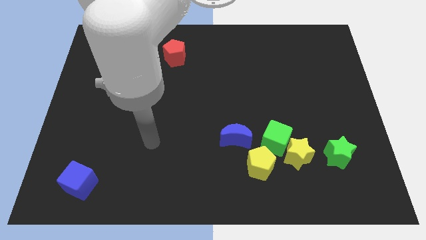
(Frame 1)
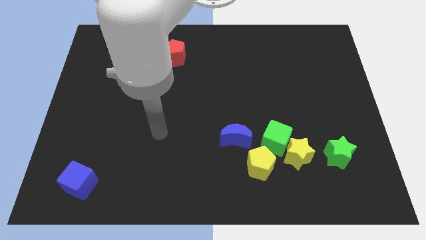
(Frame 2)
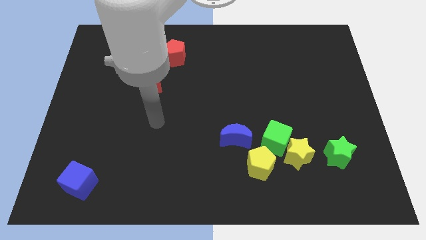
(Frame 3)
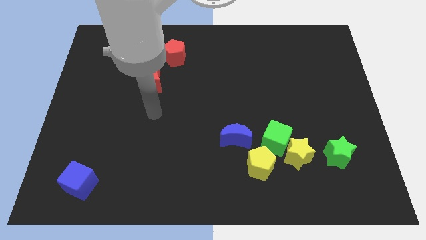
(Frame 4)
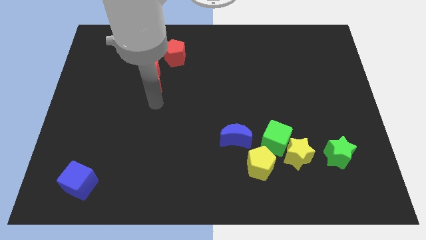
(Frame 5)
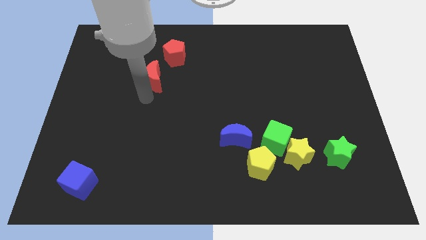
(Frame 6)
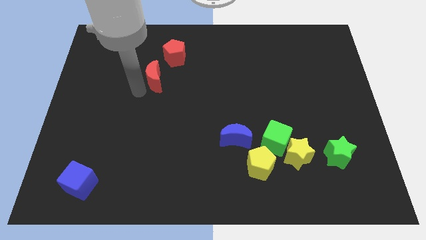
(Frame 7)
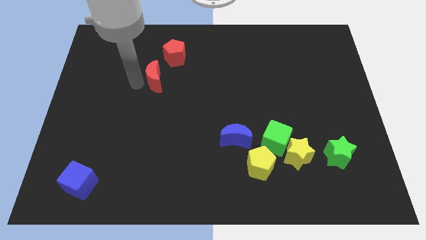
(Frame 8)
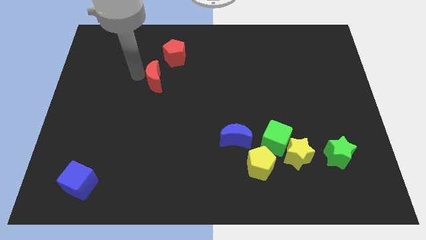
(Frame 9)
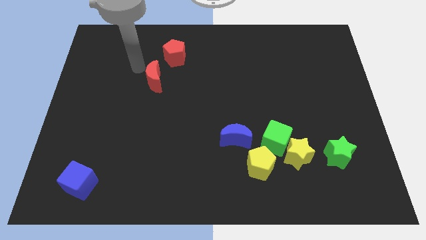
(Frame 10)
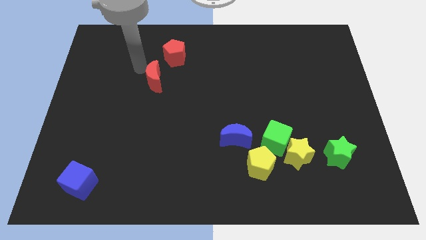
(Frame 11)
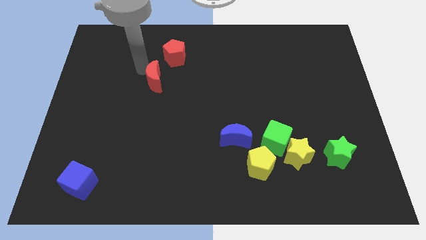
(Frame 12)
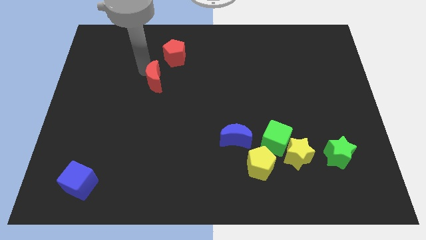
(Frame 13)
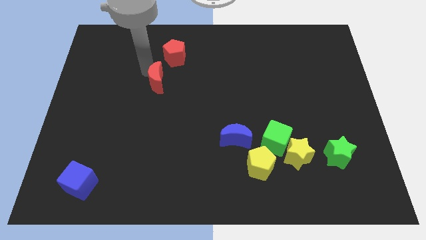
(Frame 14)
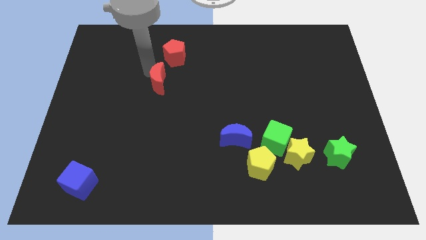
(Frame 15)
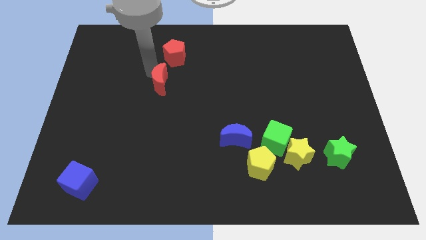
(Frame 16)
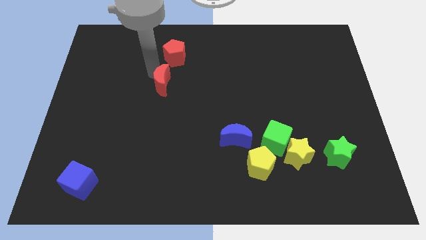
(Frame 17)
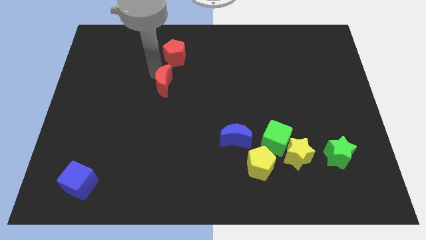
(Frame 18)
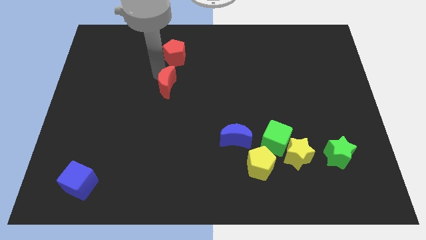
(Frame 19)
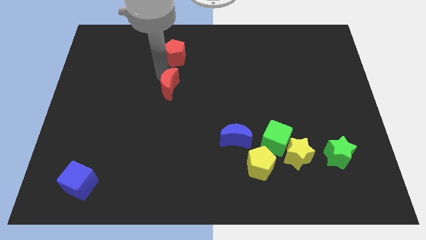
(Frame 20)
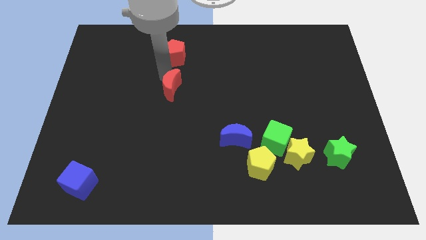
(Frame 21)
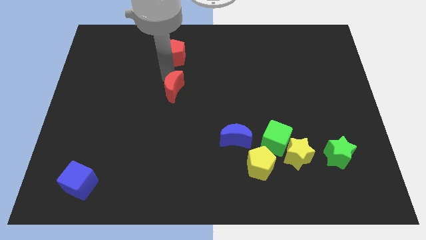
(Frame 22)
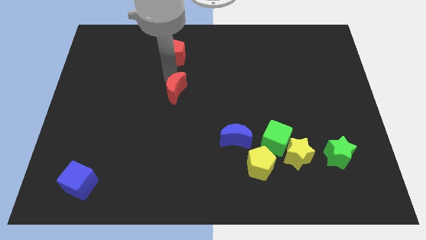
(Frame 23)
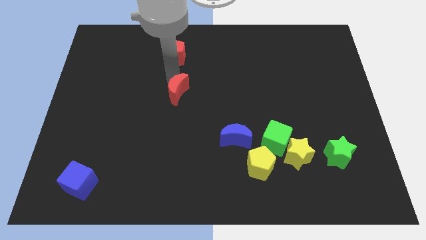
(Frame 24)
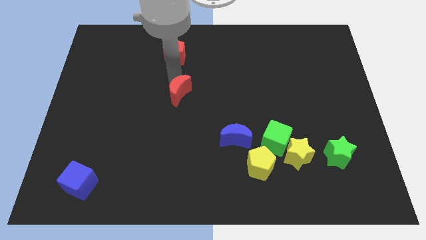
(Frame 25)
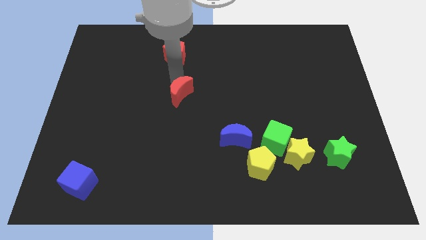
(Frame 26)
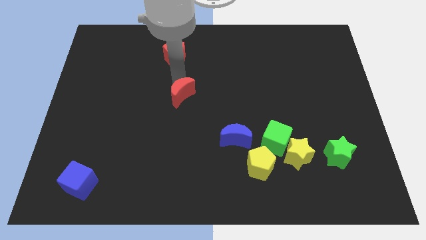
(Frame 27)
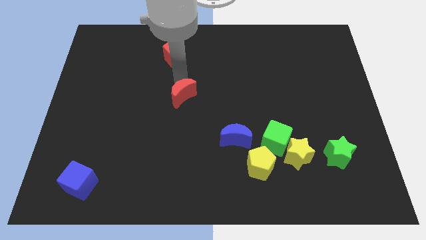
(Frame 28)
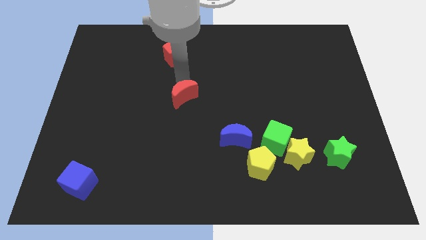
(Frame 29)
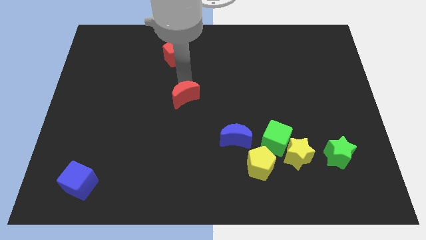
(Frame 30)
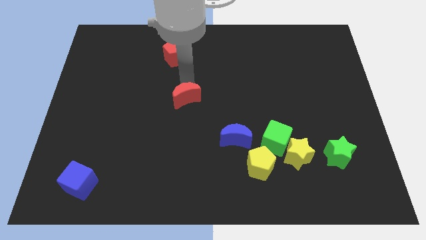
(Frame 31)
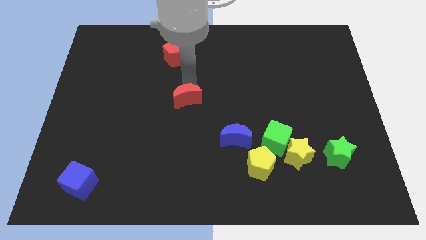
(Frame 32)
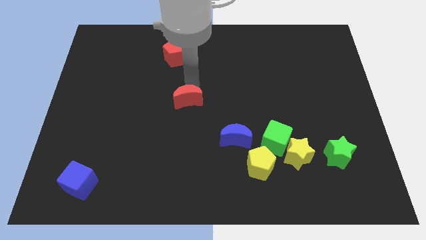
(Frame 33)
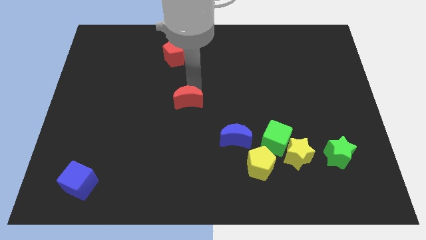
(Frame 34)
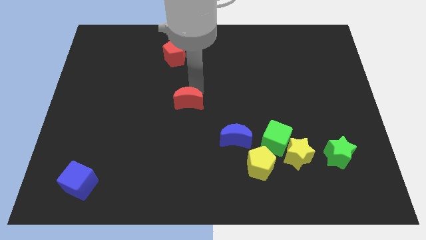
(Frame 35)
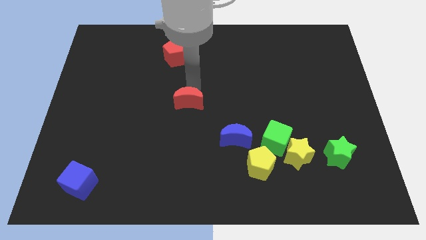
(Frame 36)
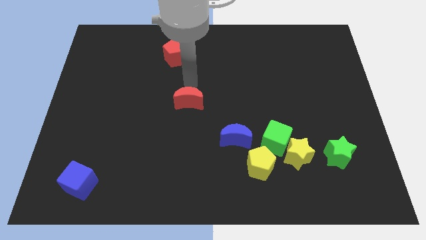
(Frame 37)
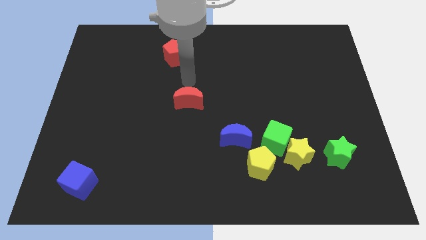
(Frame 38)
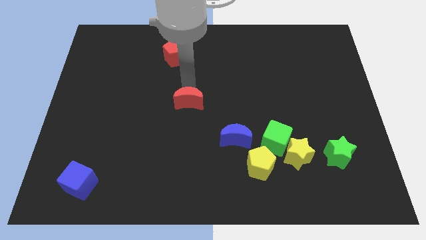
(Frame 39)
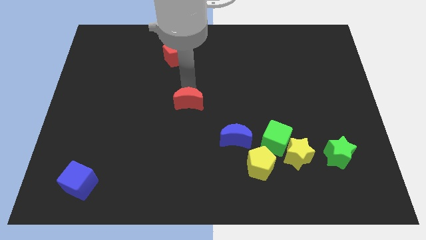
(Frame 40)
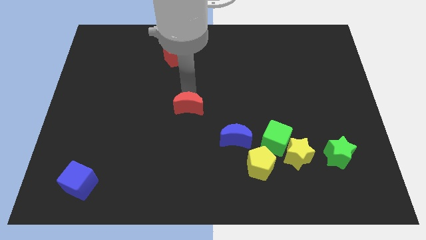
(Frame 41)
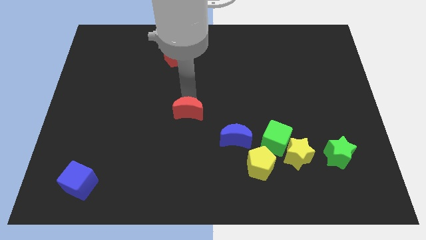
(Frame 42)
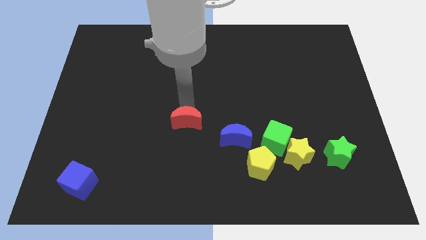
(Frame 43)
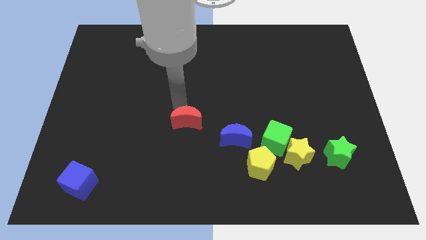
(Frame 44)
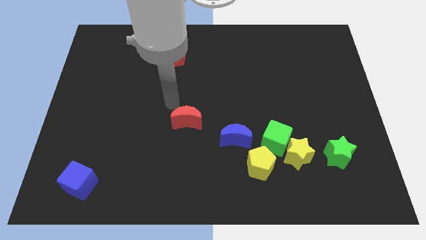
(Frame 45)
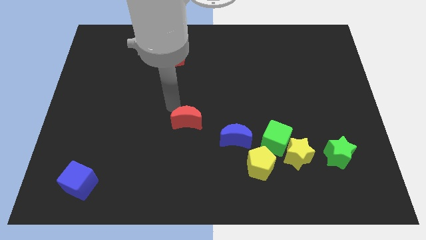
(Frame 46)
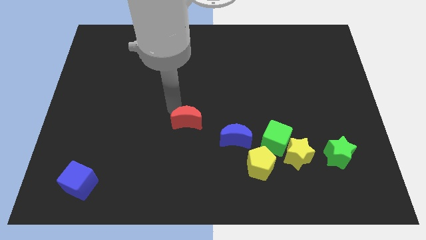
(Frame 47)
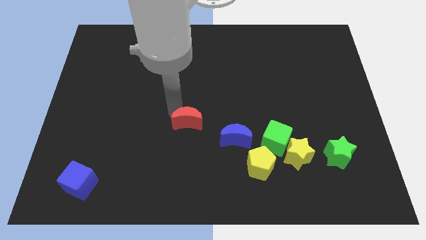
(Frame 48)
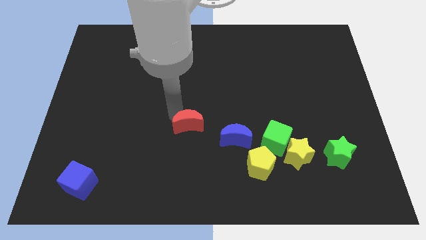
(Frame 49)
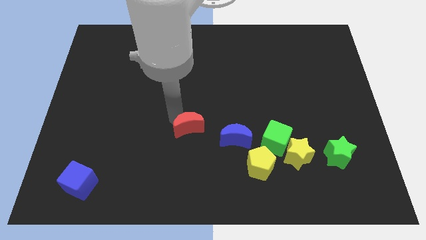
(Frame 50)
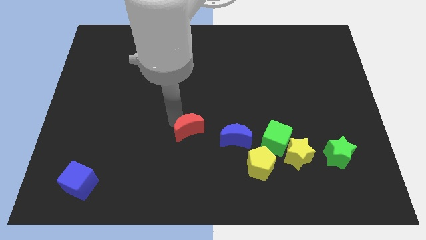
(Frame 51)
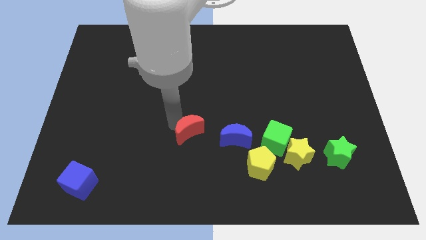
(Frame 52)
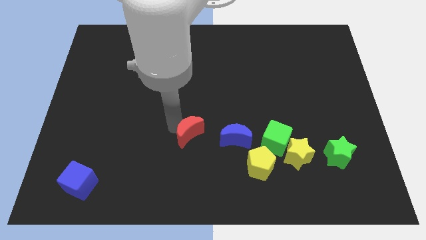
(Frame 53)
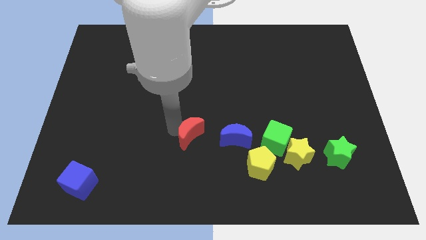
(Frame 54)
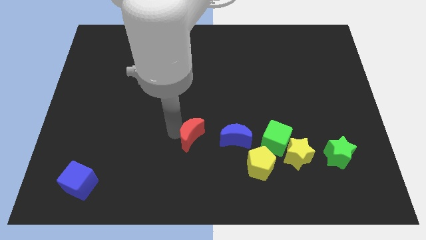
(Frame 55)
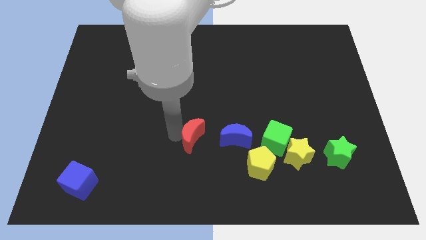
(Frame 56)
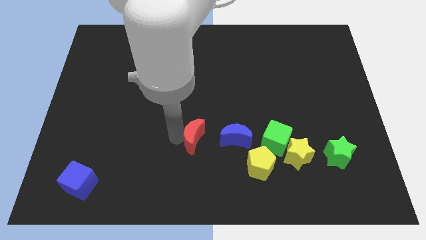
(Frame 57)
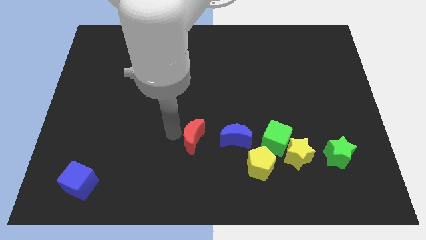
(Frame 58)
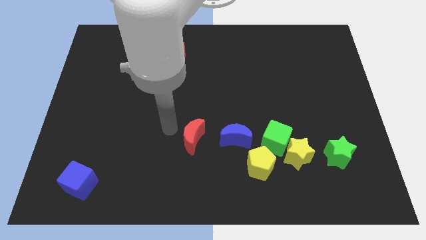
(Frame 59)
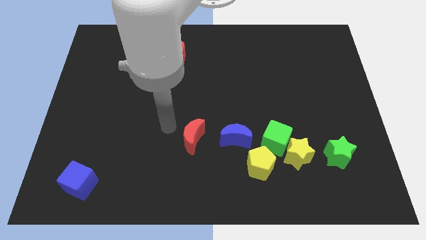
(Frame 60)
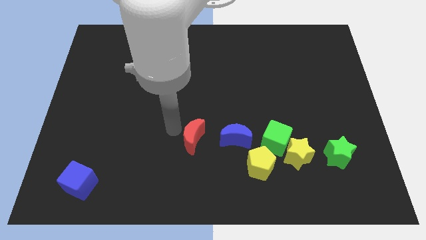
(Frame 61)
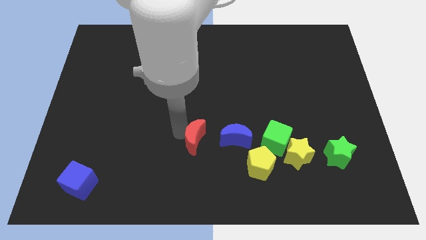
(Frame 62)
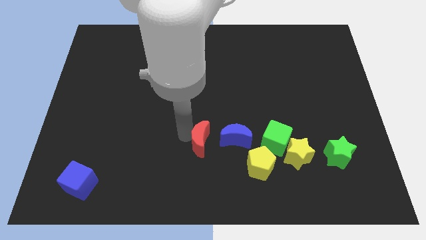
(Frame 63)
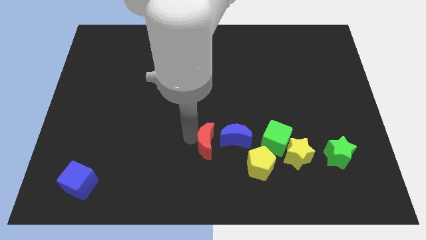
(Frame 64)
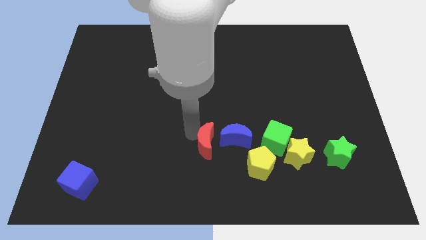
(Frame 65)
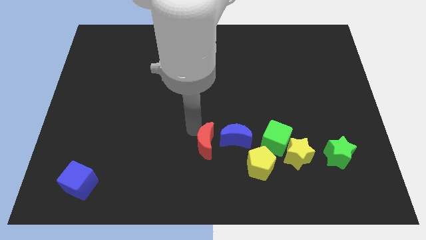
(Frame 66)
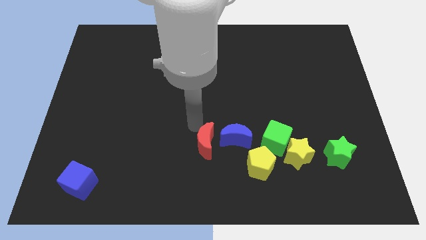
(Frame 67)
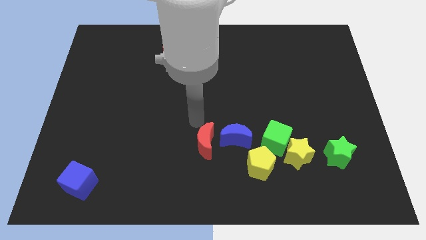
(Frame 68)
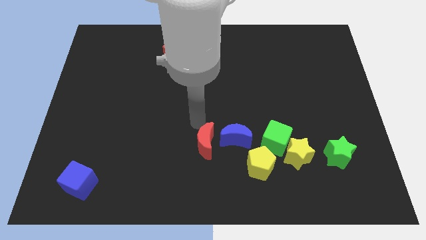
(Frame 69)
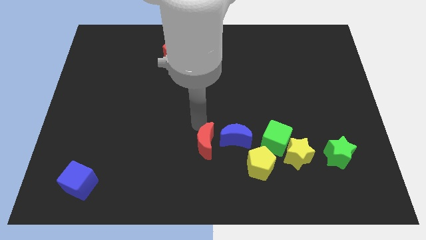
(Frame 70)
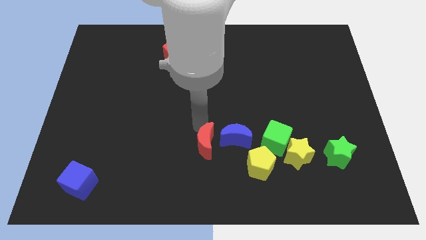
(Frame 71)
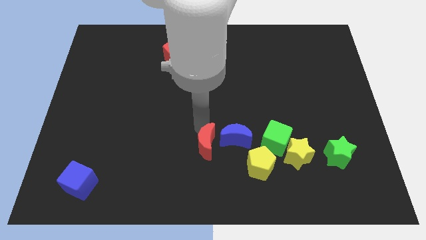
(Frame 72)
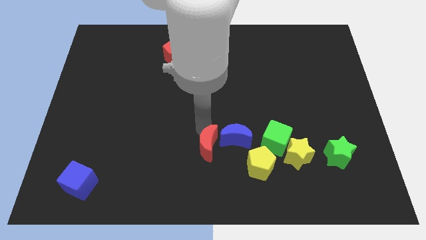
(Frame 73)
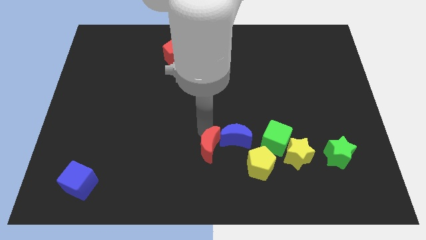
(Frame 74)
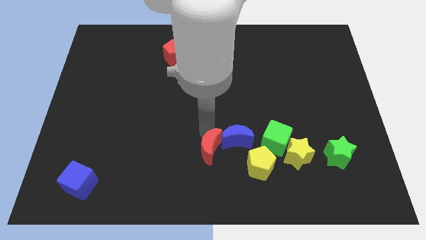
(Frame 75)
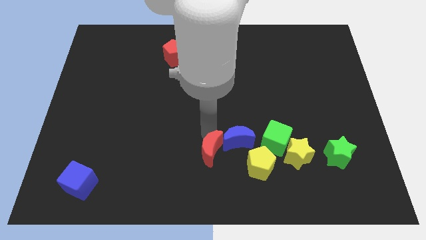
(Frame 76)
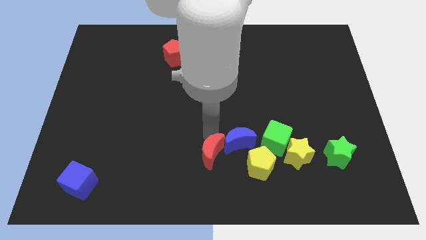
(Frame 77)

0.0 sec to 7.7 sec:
move the red moon to the bottom
